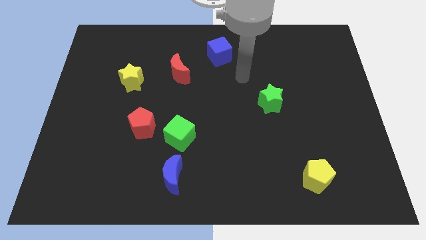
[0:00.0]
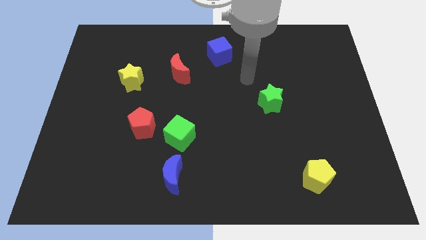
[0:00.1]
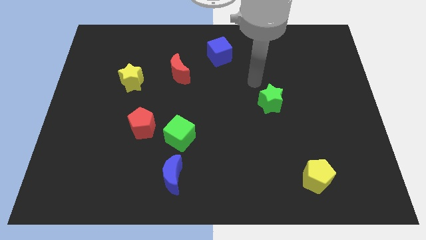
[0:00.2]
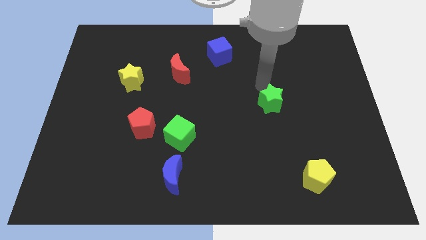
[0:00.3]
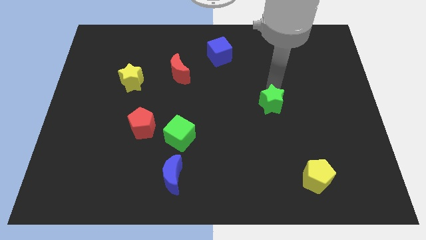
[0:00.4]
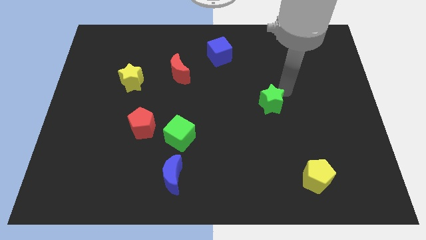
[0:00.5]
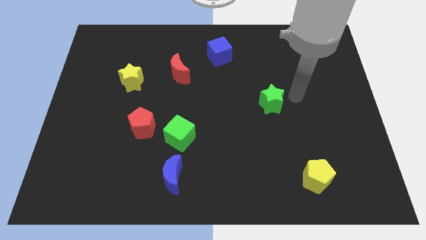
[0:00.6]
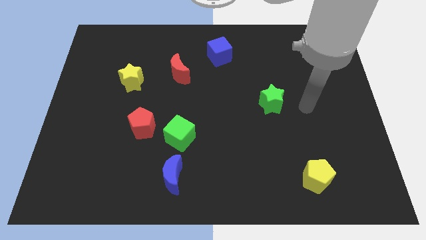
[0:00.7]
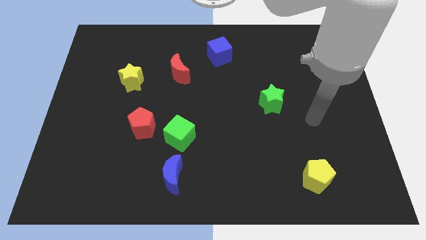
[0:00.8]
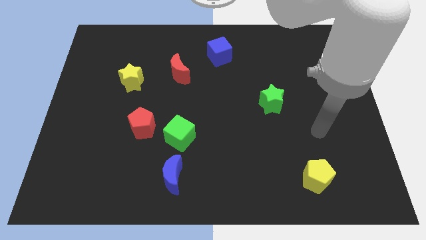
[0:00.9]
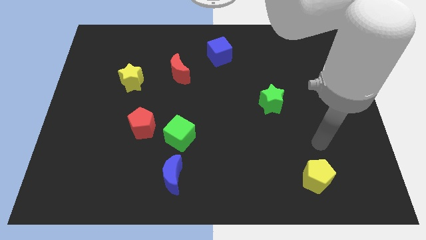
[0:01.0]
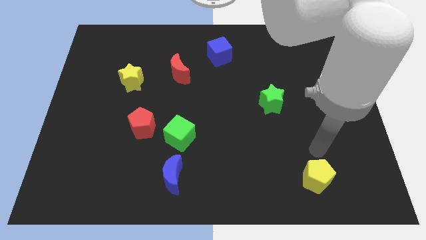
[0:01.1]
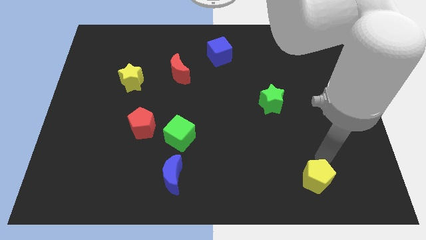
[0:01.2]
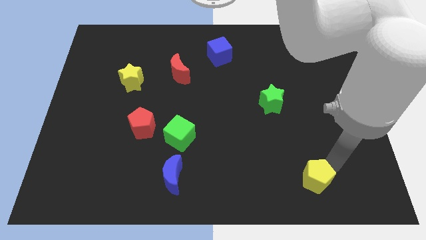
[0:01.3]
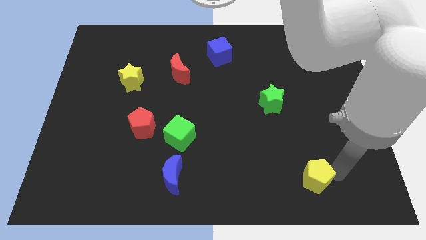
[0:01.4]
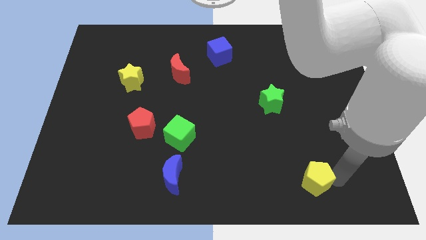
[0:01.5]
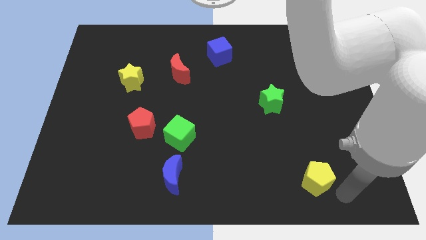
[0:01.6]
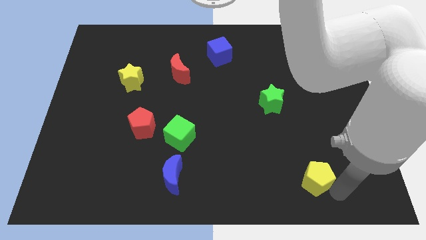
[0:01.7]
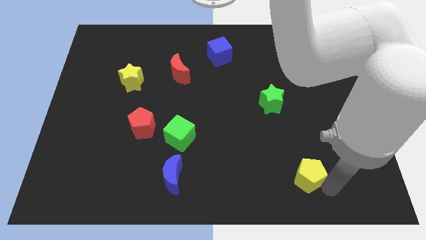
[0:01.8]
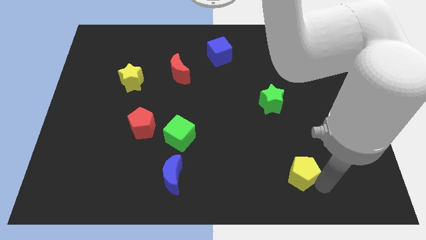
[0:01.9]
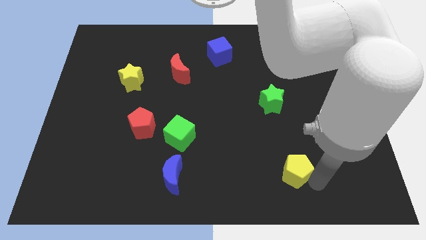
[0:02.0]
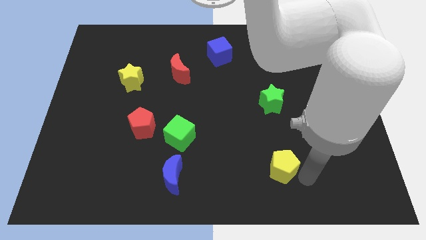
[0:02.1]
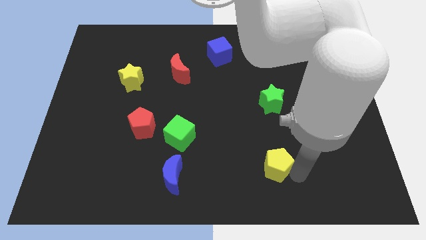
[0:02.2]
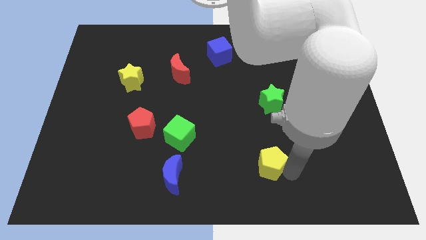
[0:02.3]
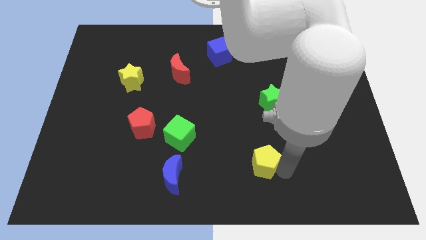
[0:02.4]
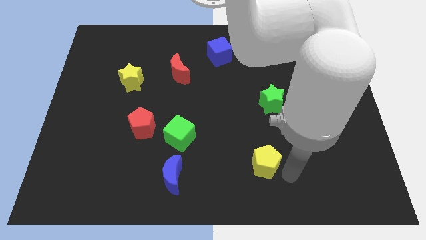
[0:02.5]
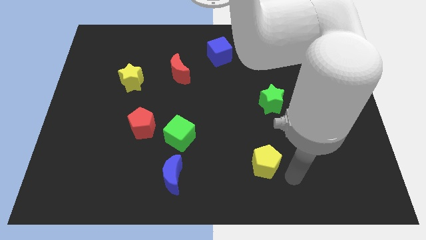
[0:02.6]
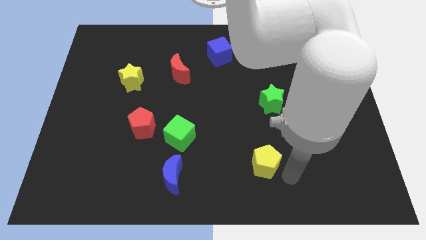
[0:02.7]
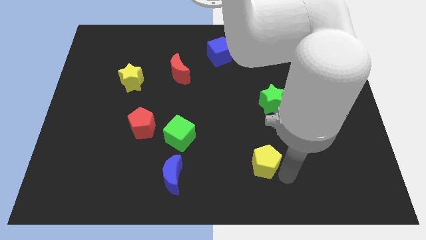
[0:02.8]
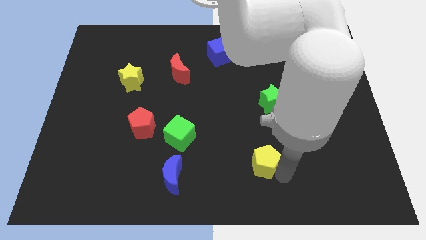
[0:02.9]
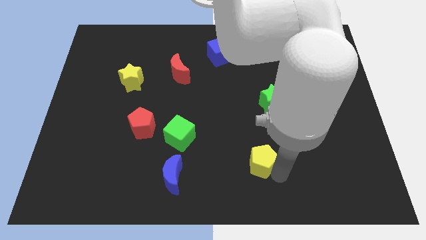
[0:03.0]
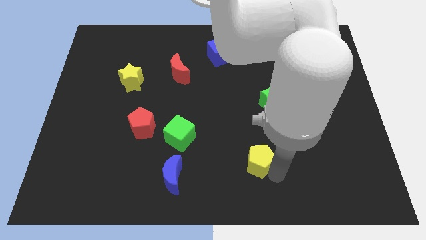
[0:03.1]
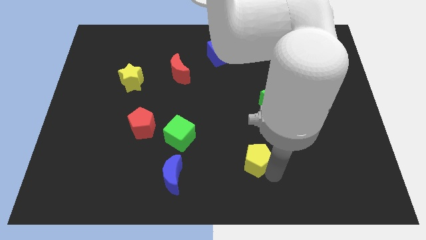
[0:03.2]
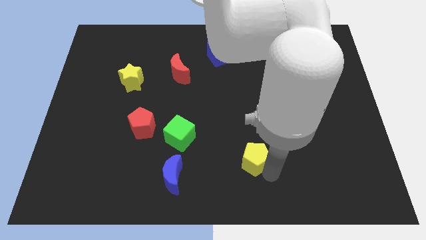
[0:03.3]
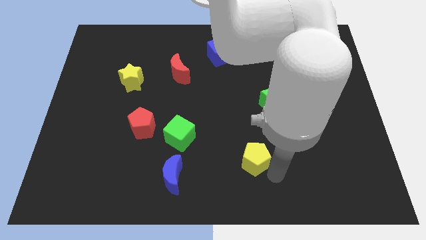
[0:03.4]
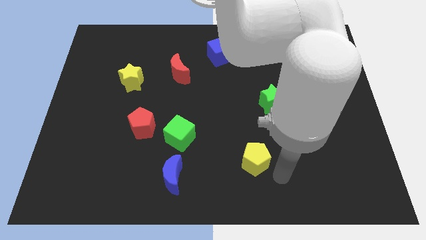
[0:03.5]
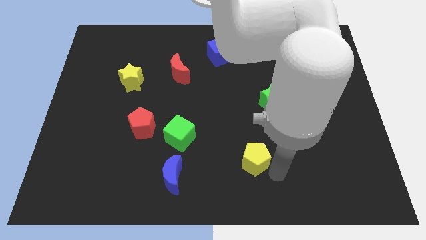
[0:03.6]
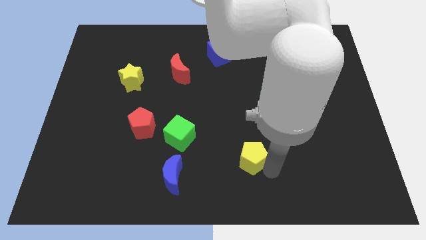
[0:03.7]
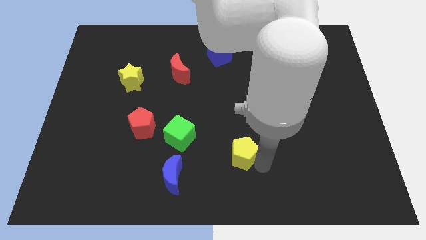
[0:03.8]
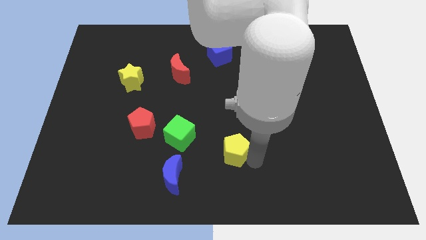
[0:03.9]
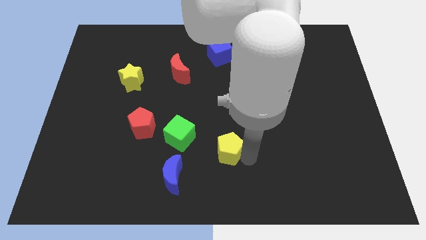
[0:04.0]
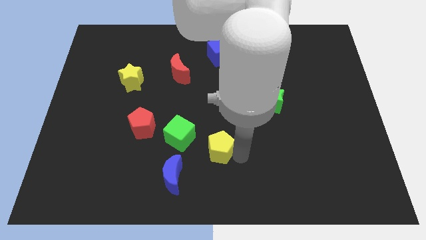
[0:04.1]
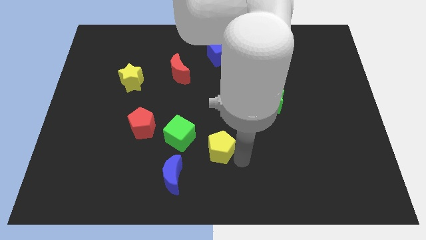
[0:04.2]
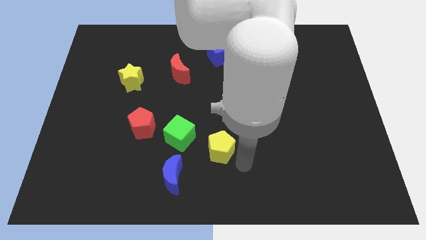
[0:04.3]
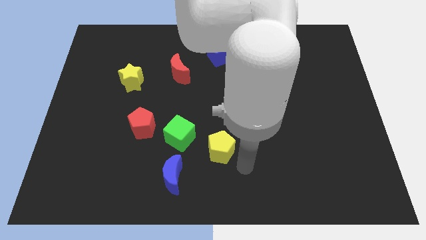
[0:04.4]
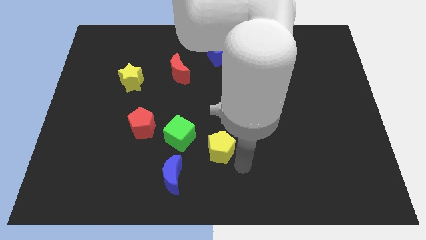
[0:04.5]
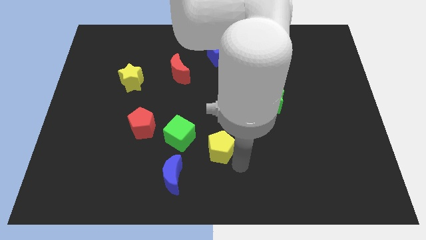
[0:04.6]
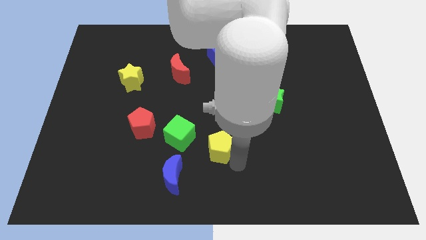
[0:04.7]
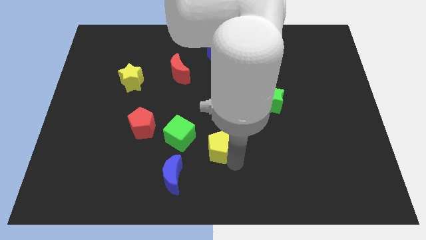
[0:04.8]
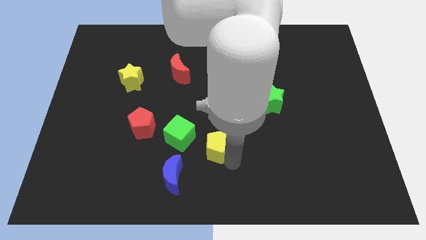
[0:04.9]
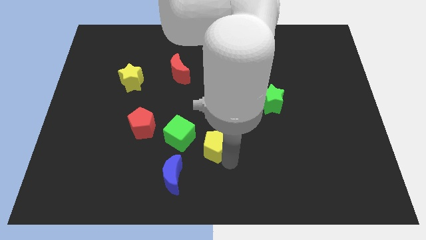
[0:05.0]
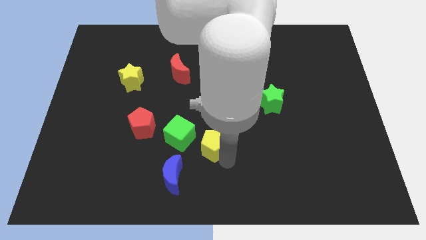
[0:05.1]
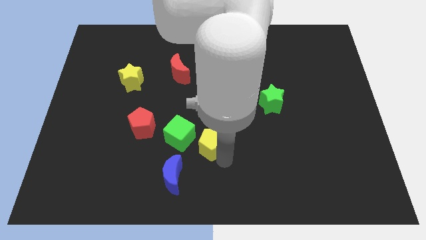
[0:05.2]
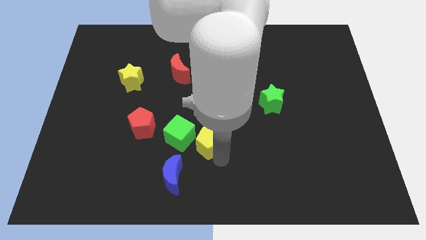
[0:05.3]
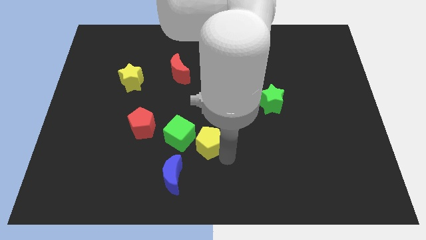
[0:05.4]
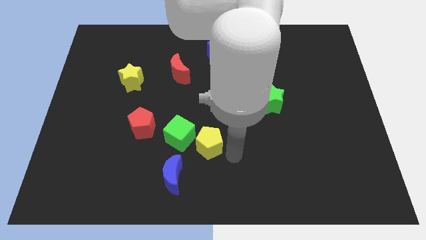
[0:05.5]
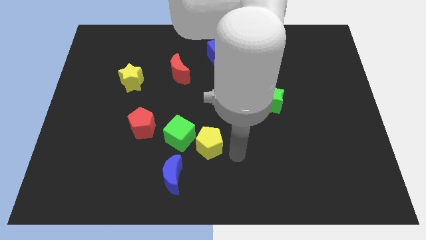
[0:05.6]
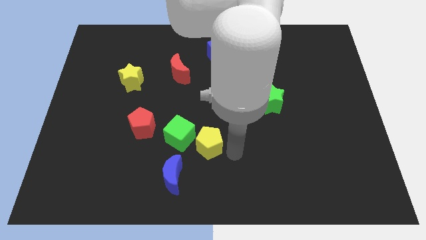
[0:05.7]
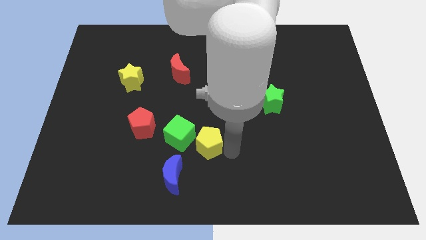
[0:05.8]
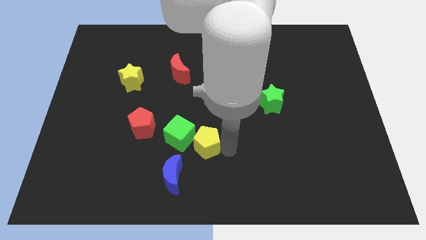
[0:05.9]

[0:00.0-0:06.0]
push the yellow pentagon close to the green cube

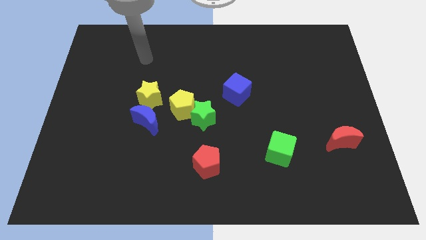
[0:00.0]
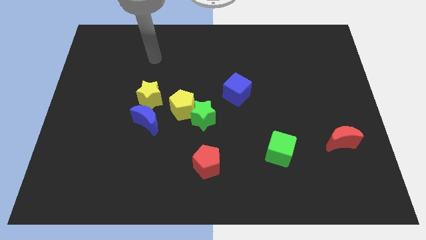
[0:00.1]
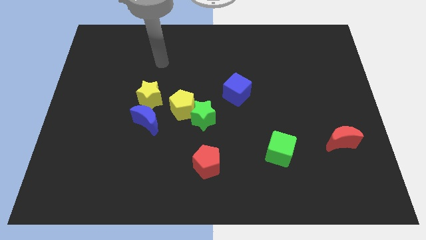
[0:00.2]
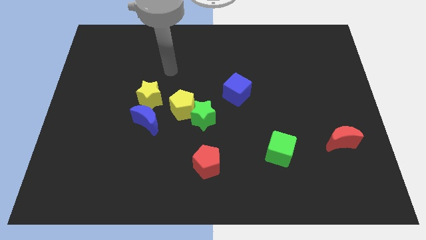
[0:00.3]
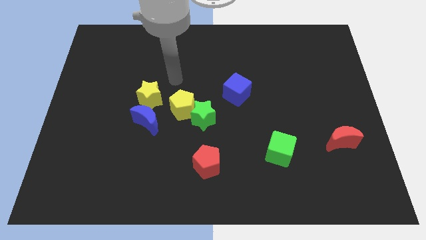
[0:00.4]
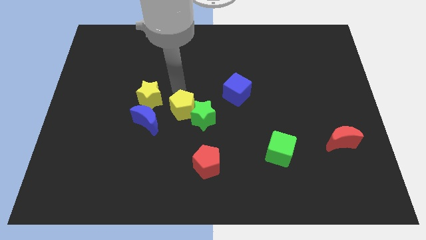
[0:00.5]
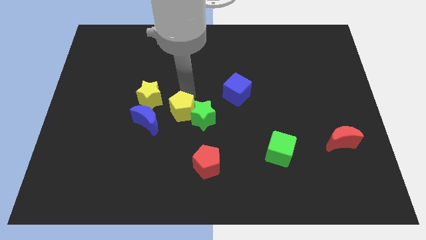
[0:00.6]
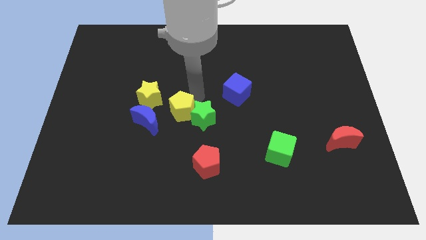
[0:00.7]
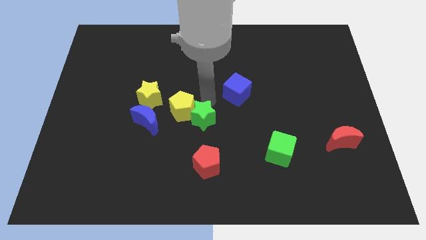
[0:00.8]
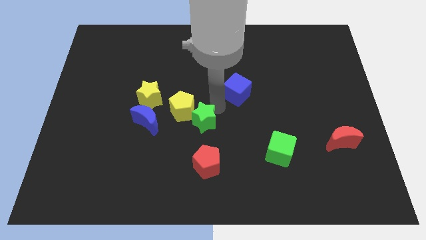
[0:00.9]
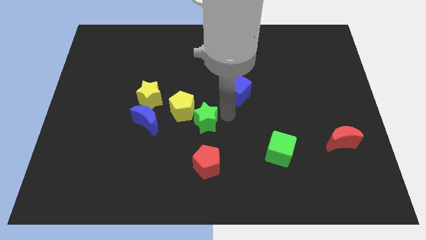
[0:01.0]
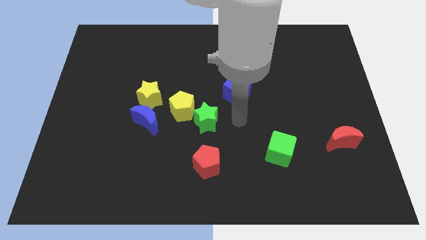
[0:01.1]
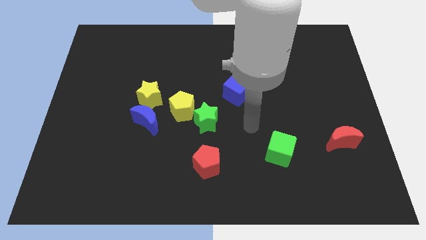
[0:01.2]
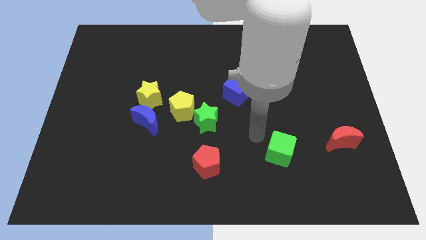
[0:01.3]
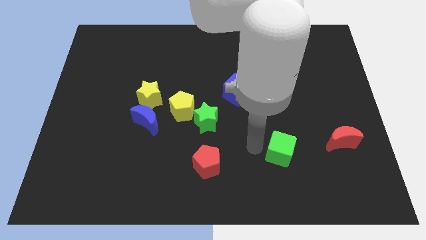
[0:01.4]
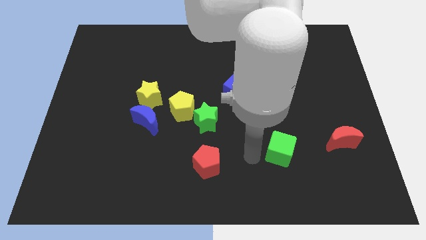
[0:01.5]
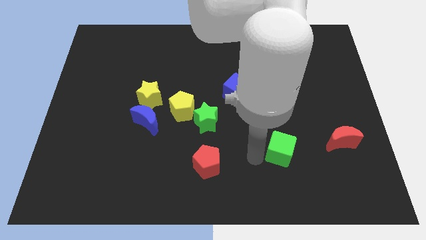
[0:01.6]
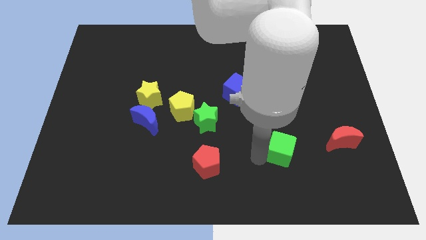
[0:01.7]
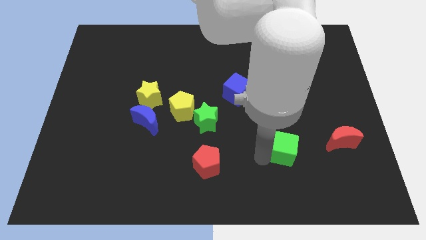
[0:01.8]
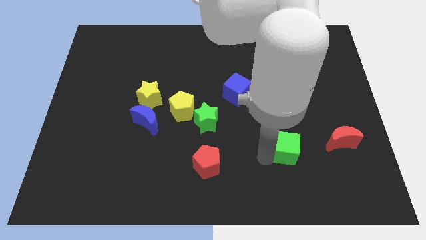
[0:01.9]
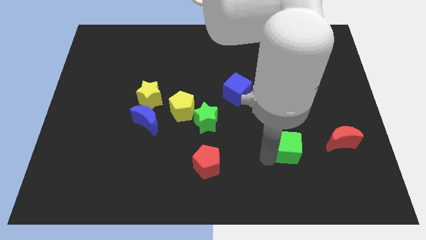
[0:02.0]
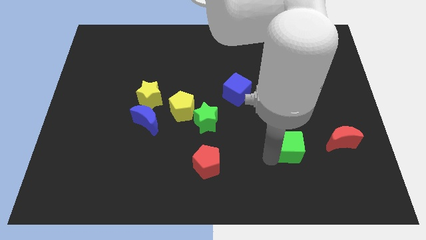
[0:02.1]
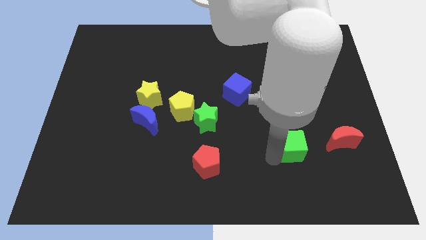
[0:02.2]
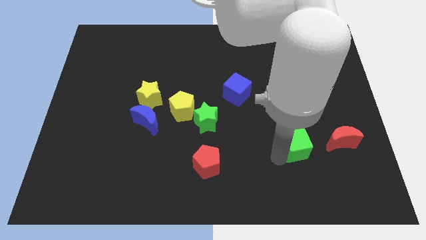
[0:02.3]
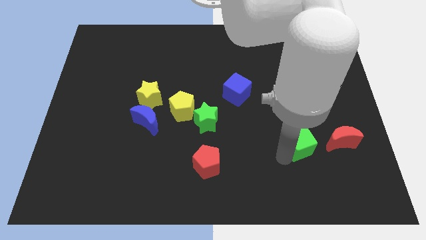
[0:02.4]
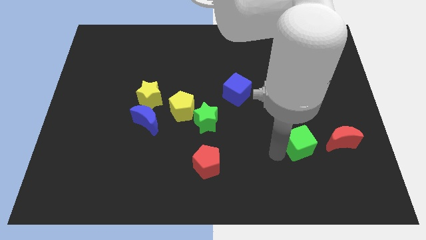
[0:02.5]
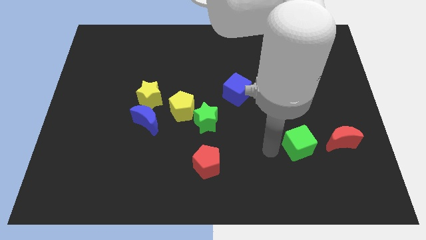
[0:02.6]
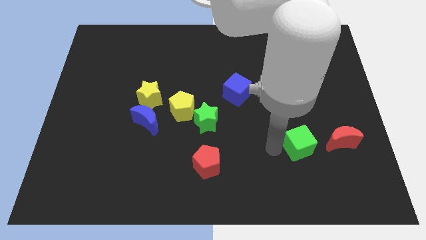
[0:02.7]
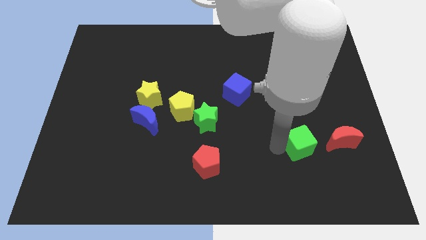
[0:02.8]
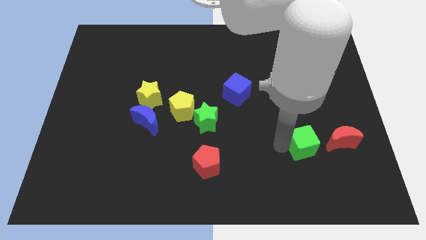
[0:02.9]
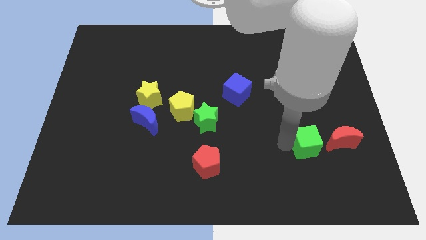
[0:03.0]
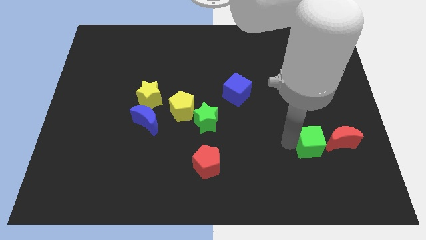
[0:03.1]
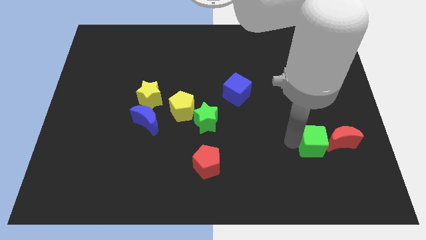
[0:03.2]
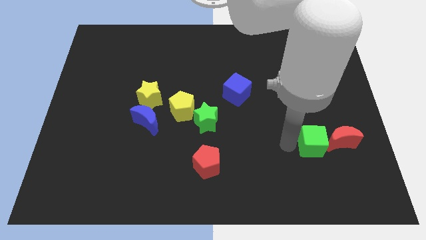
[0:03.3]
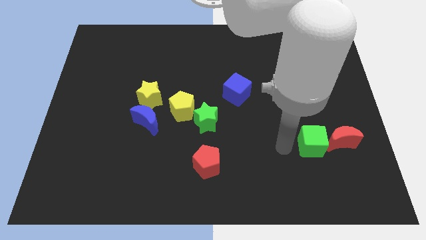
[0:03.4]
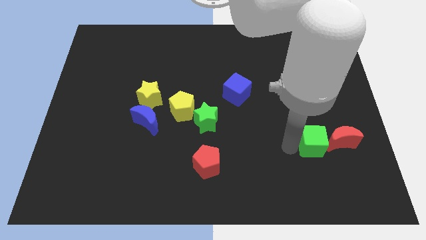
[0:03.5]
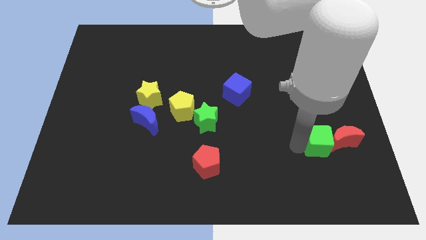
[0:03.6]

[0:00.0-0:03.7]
slide the green cube next to the red moon
